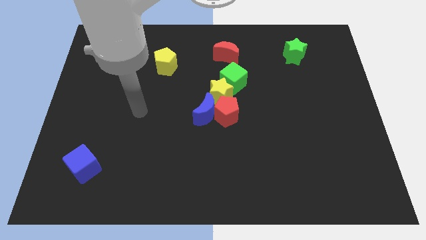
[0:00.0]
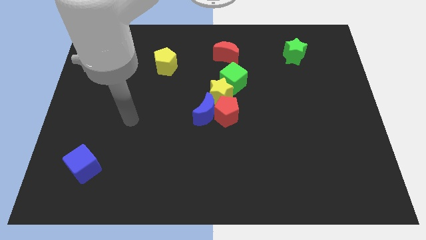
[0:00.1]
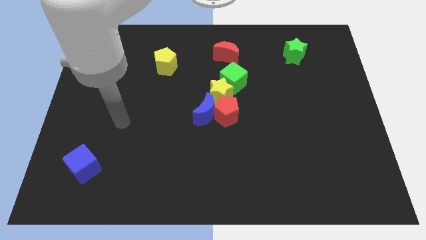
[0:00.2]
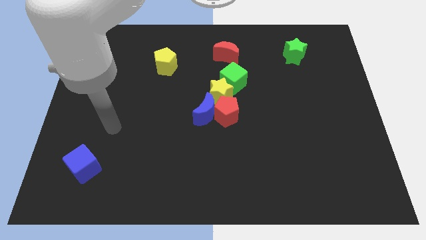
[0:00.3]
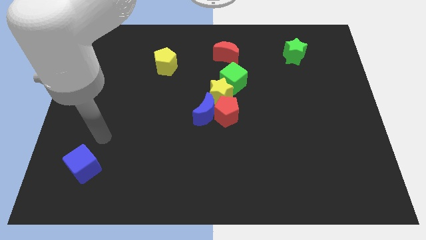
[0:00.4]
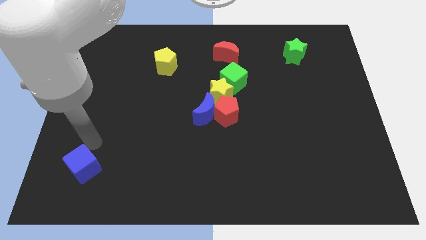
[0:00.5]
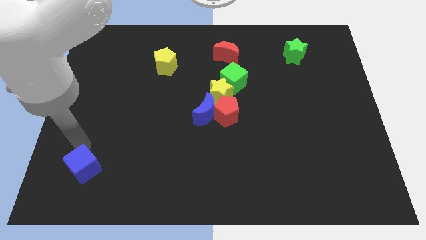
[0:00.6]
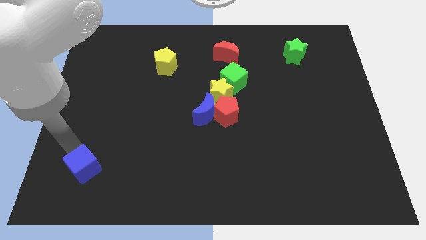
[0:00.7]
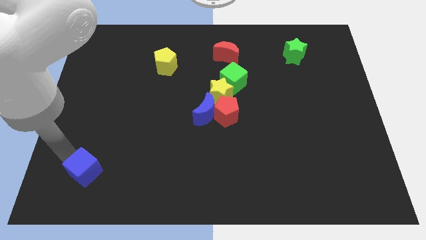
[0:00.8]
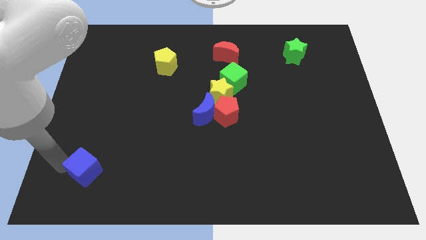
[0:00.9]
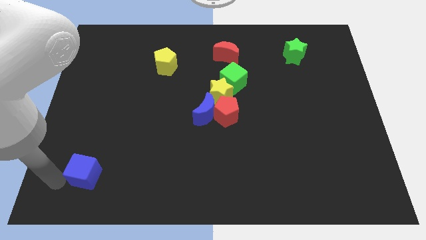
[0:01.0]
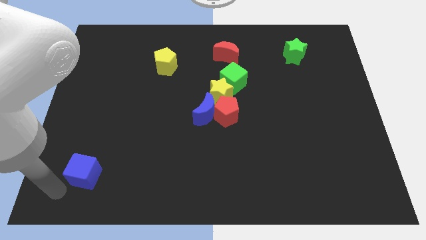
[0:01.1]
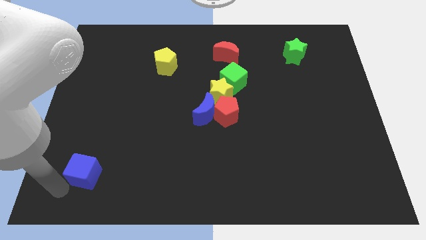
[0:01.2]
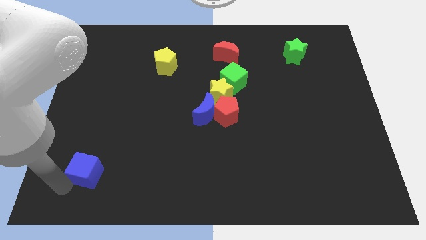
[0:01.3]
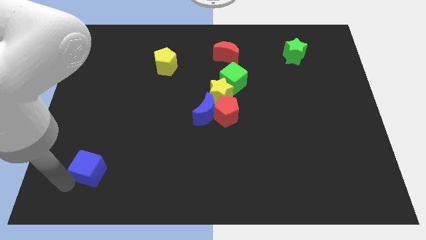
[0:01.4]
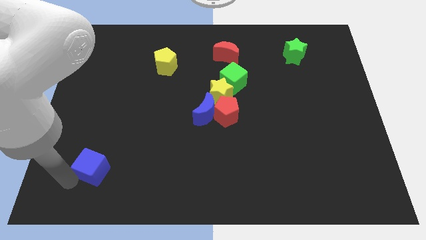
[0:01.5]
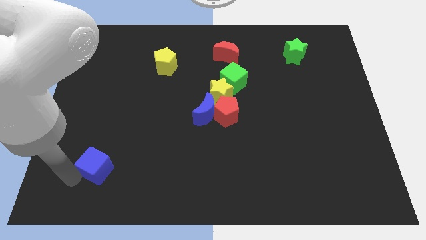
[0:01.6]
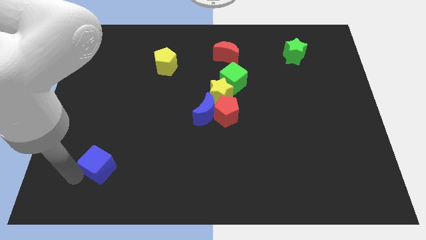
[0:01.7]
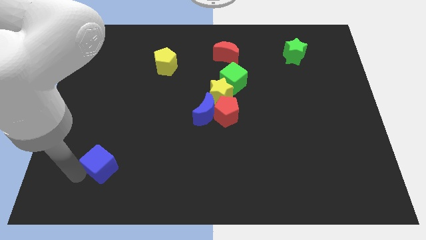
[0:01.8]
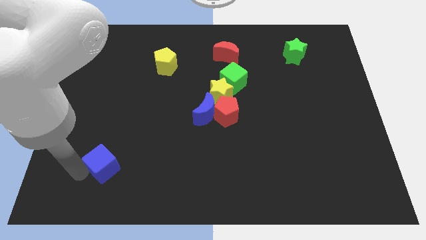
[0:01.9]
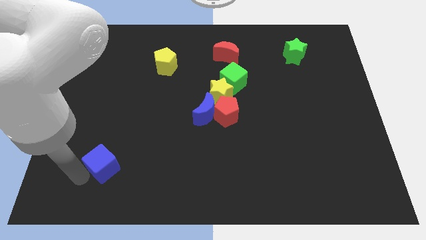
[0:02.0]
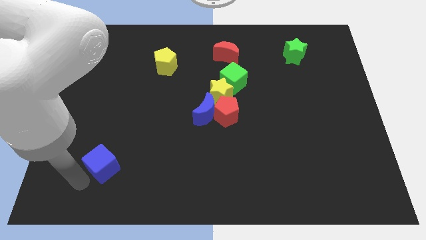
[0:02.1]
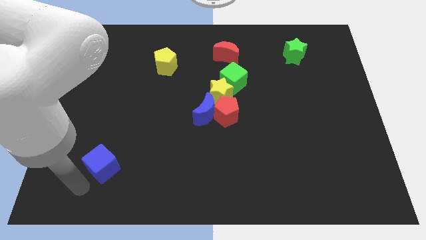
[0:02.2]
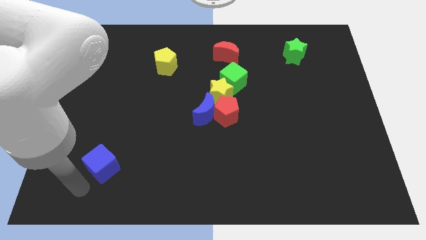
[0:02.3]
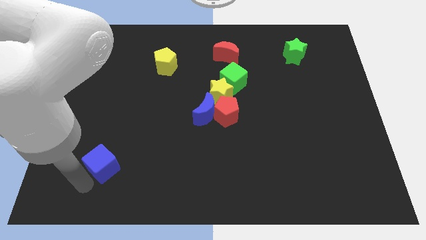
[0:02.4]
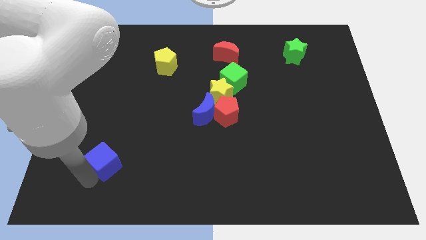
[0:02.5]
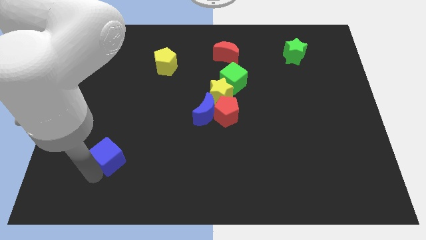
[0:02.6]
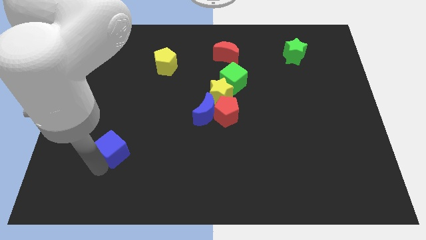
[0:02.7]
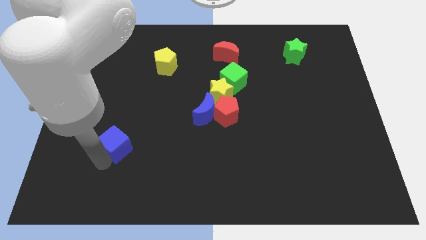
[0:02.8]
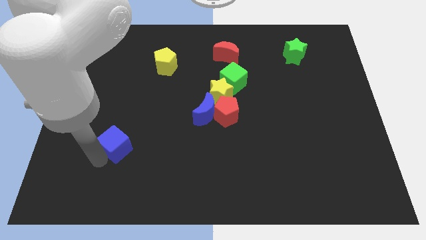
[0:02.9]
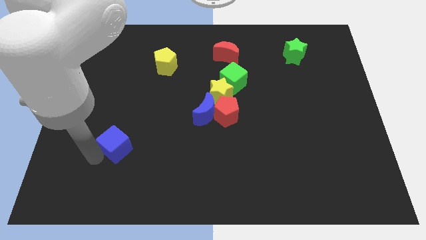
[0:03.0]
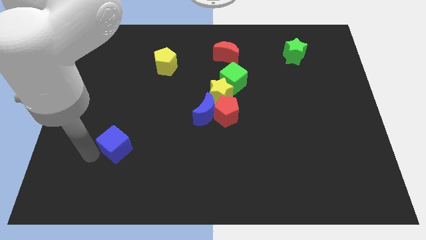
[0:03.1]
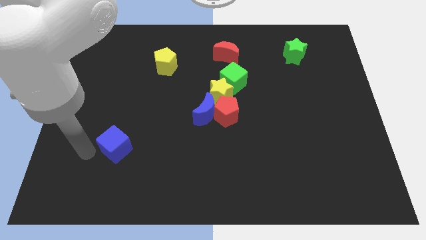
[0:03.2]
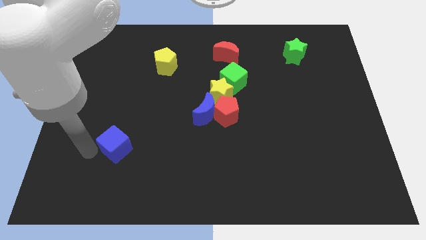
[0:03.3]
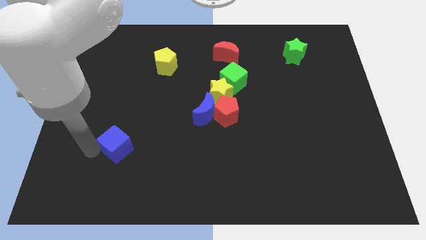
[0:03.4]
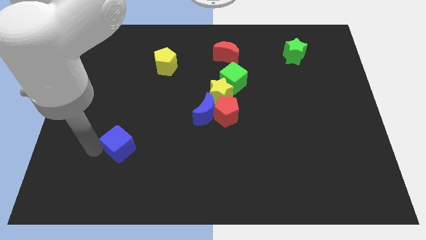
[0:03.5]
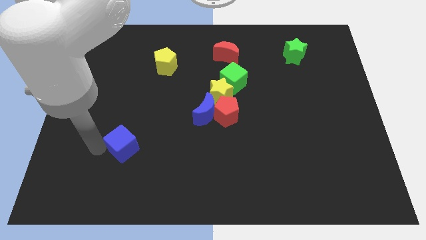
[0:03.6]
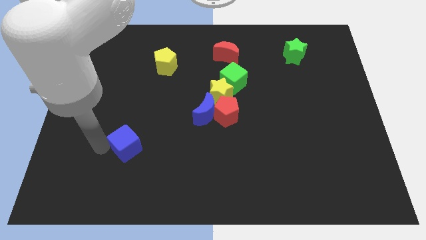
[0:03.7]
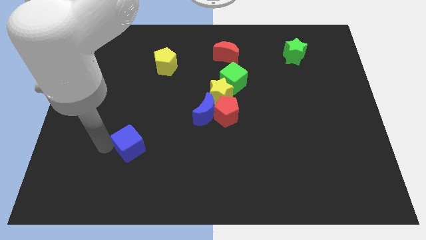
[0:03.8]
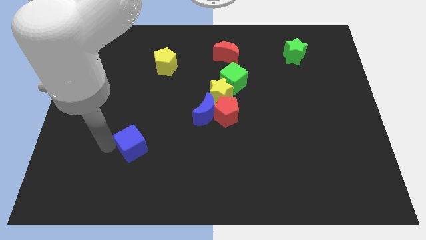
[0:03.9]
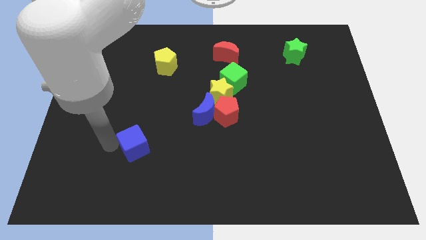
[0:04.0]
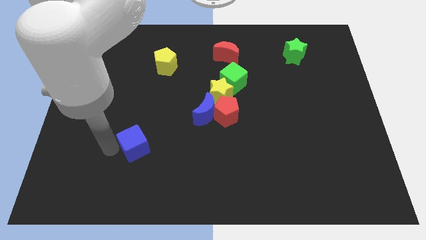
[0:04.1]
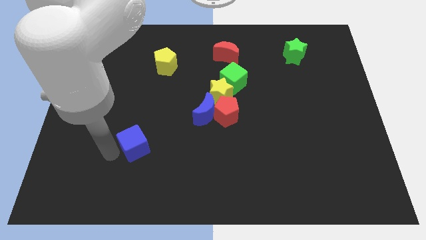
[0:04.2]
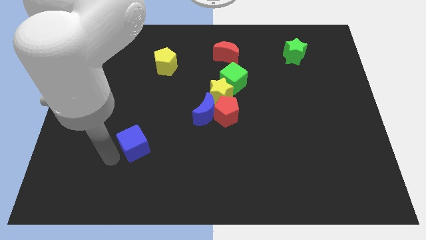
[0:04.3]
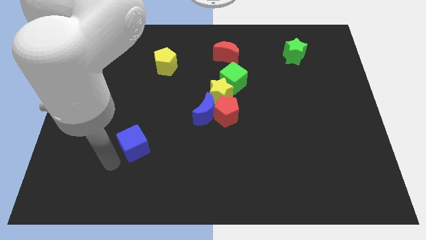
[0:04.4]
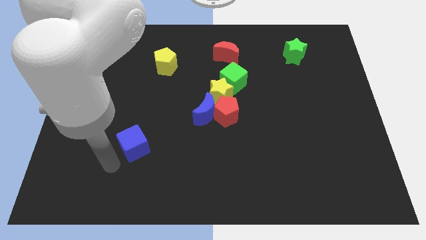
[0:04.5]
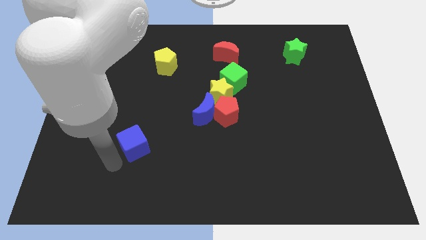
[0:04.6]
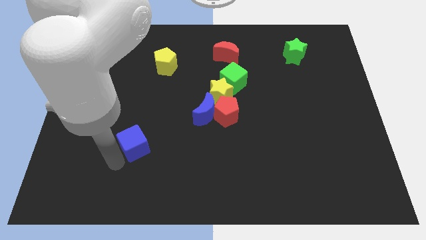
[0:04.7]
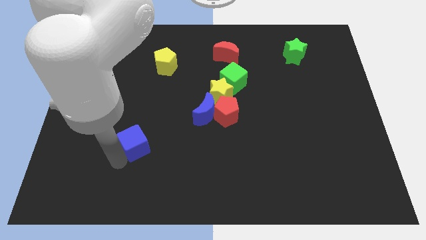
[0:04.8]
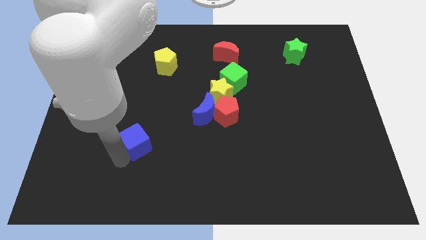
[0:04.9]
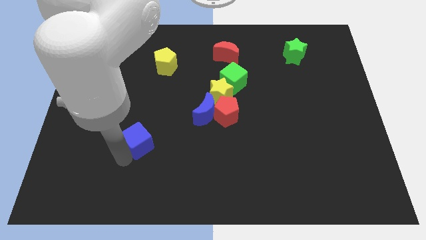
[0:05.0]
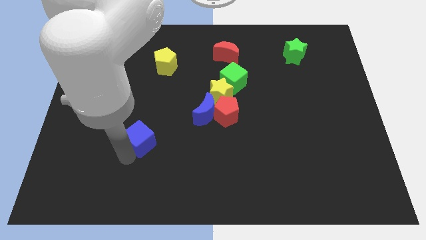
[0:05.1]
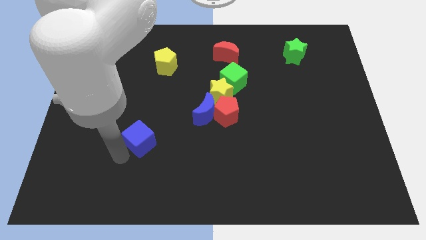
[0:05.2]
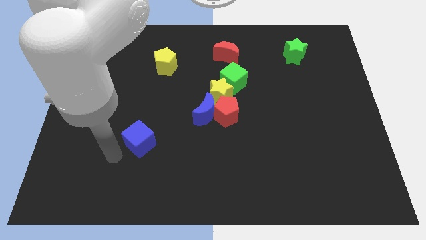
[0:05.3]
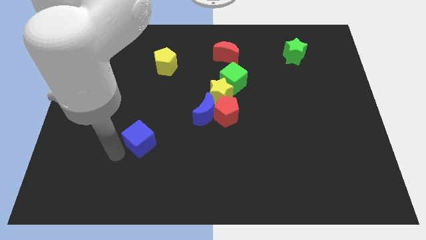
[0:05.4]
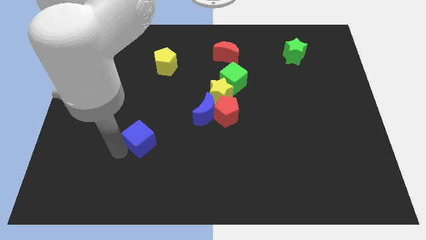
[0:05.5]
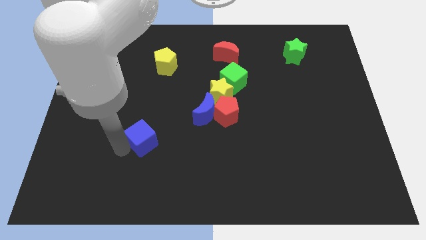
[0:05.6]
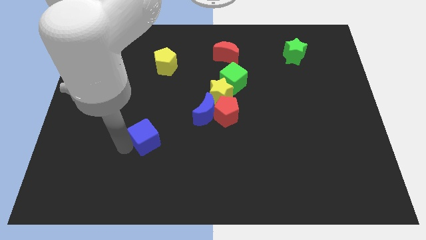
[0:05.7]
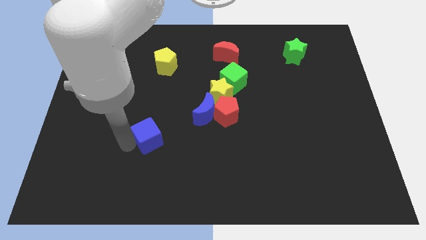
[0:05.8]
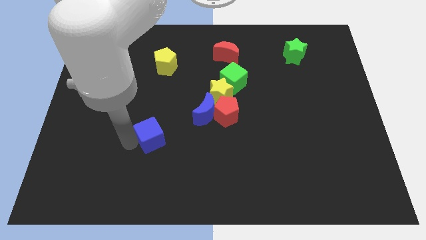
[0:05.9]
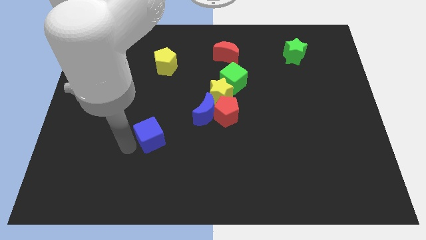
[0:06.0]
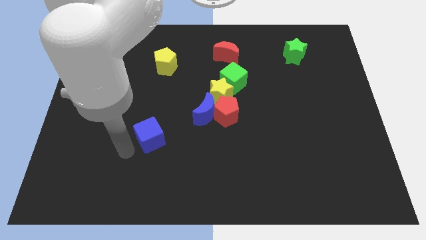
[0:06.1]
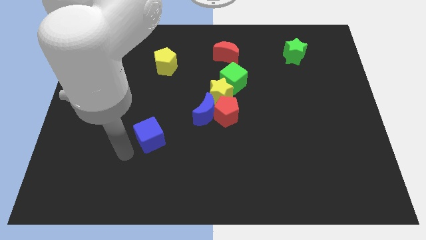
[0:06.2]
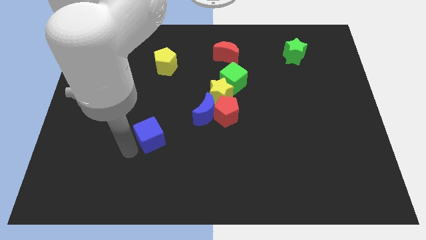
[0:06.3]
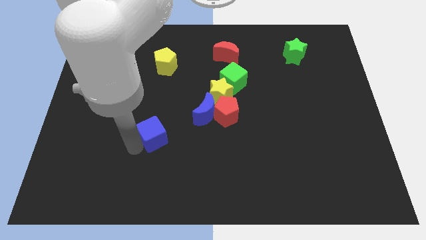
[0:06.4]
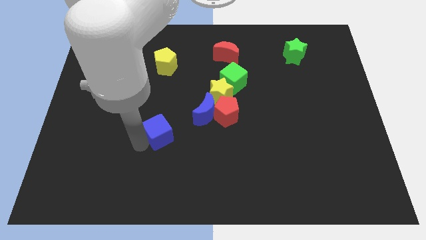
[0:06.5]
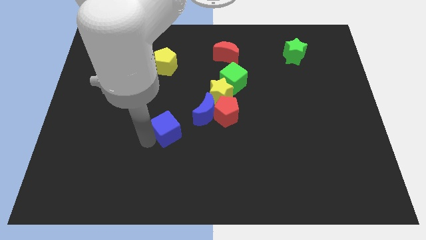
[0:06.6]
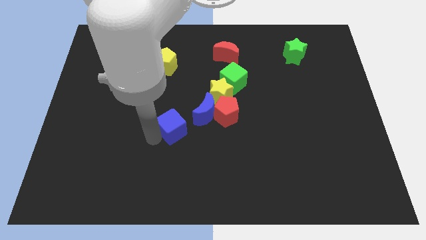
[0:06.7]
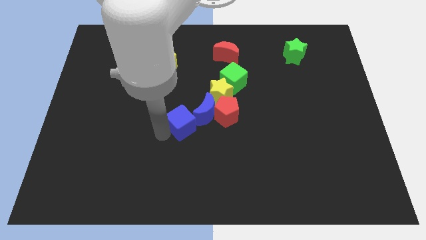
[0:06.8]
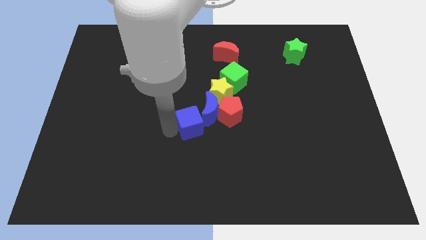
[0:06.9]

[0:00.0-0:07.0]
move the blue cube to the blue moon

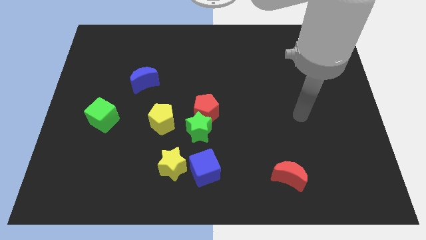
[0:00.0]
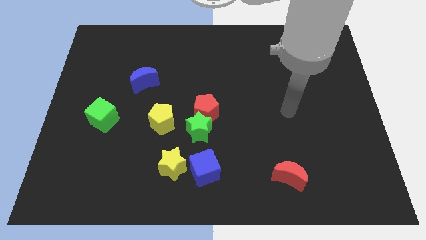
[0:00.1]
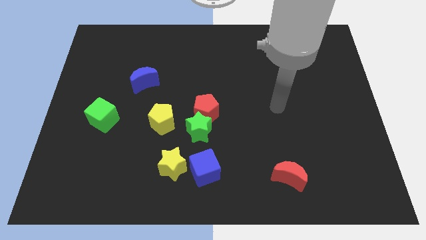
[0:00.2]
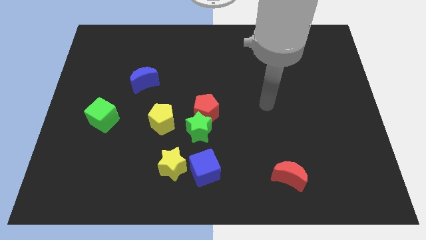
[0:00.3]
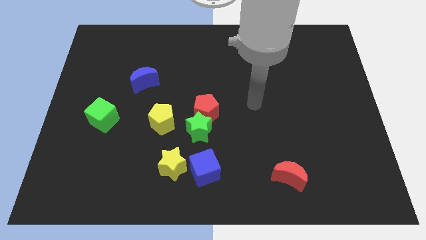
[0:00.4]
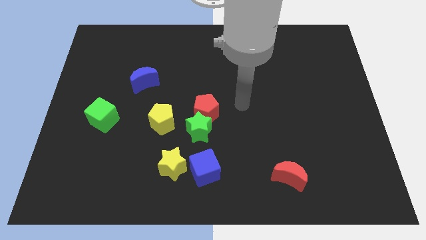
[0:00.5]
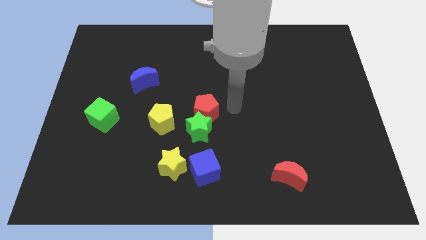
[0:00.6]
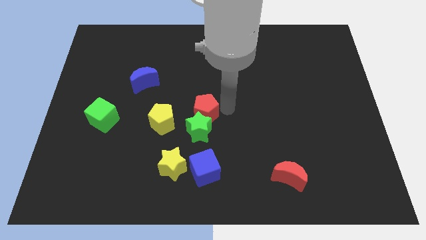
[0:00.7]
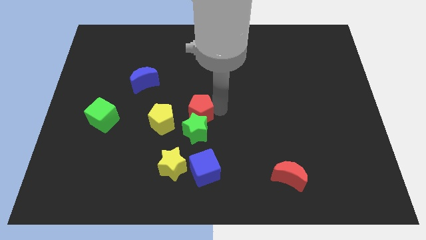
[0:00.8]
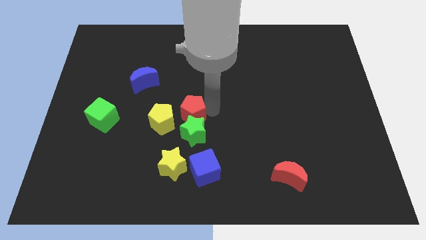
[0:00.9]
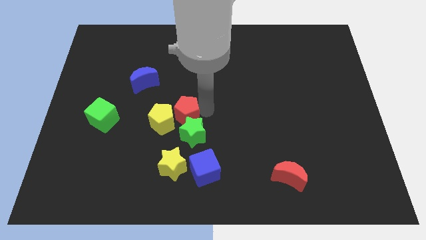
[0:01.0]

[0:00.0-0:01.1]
put the red pentagon towards the yellow pentagon
